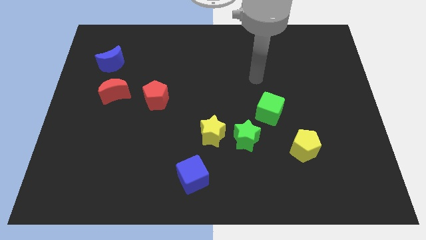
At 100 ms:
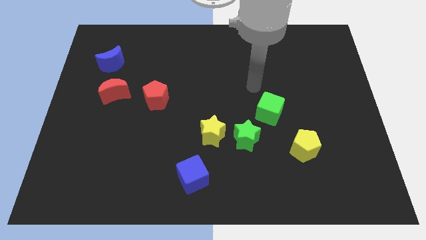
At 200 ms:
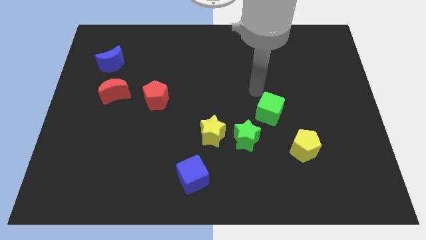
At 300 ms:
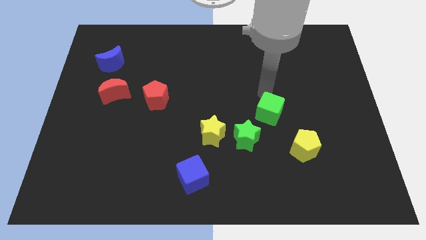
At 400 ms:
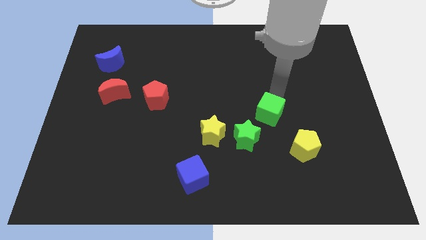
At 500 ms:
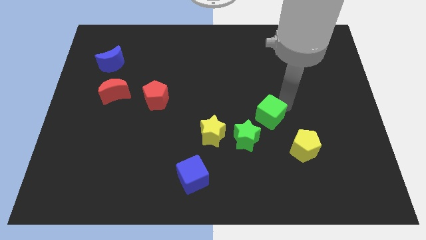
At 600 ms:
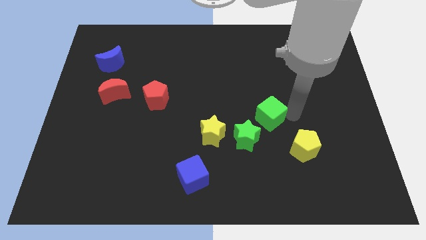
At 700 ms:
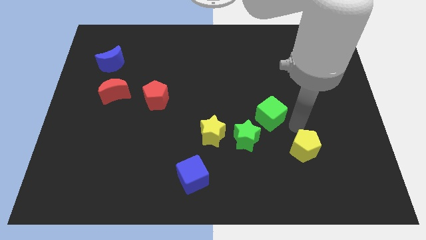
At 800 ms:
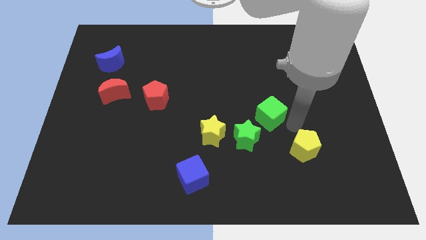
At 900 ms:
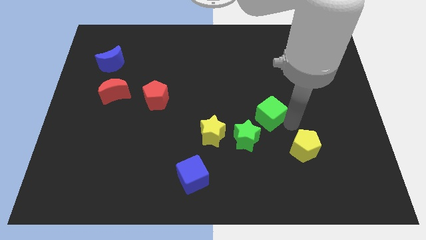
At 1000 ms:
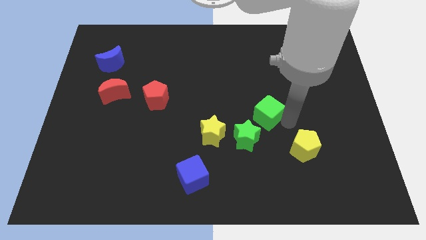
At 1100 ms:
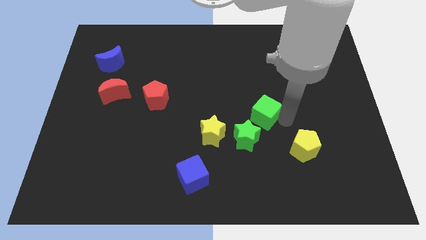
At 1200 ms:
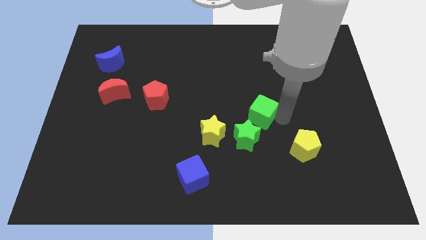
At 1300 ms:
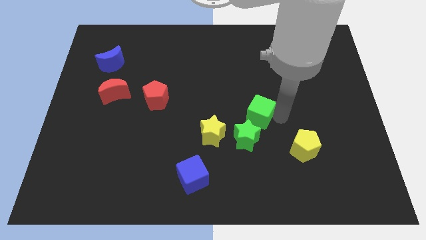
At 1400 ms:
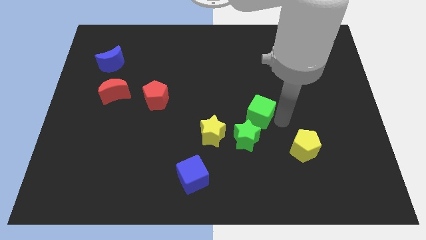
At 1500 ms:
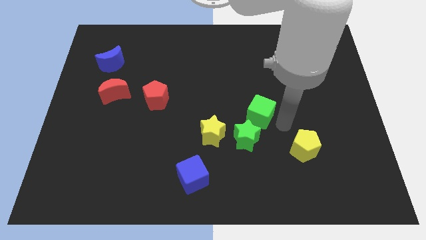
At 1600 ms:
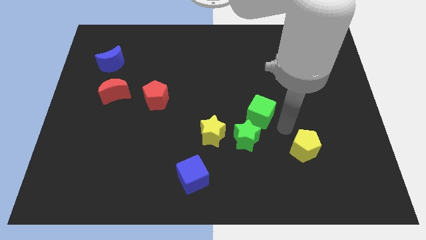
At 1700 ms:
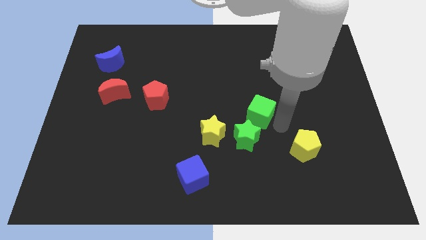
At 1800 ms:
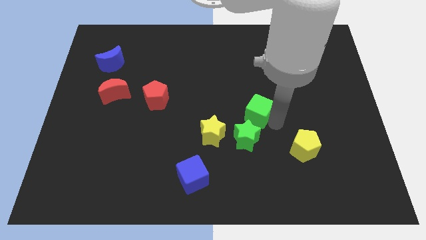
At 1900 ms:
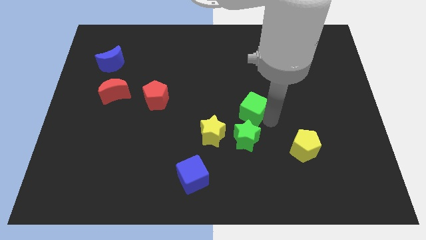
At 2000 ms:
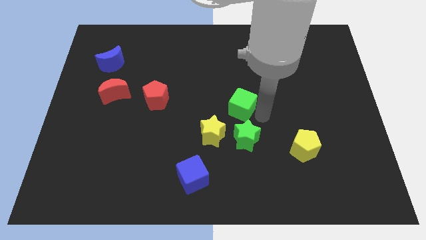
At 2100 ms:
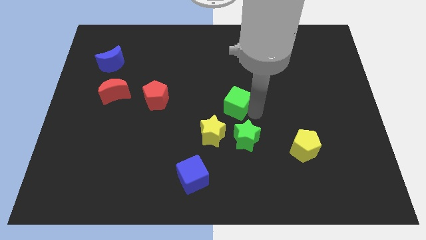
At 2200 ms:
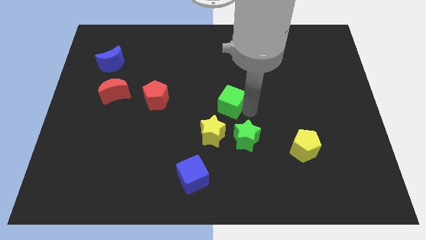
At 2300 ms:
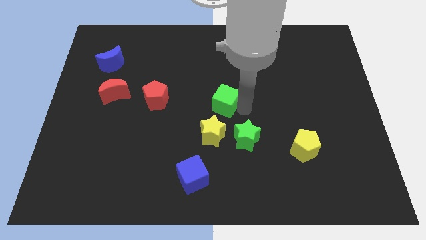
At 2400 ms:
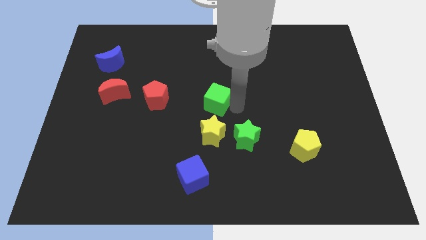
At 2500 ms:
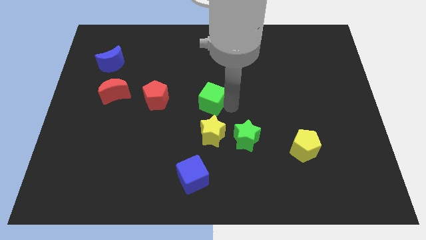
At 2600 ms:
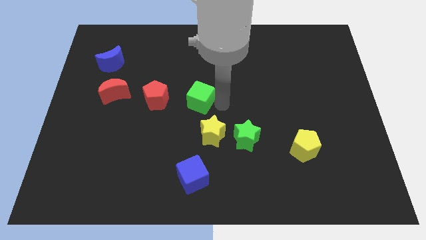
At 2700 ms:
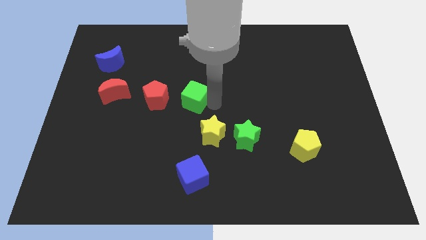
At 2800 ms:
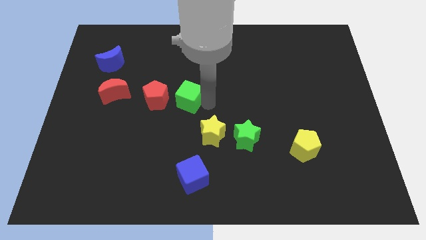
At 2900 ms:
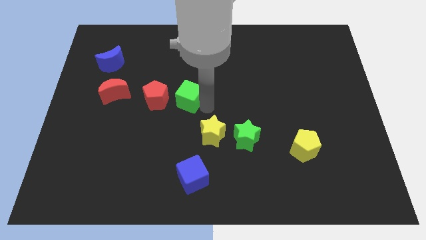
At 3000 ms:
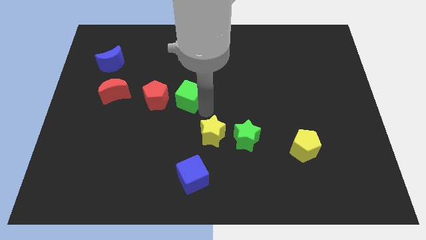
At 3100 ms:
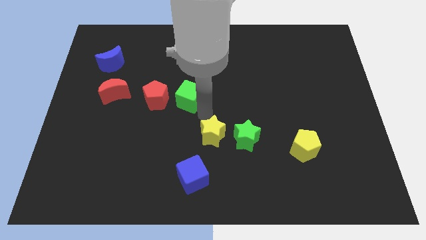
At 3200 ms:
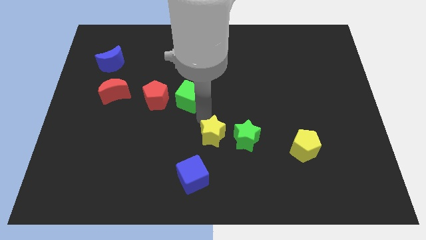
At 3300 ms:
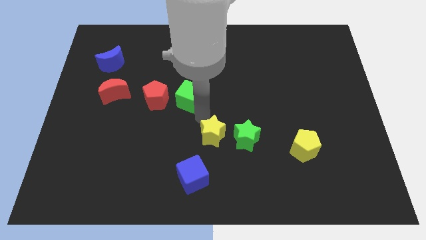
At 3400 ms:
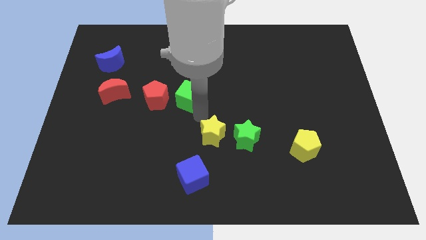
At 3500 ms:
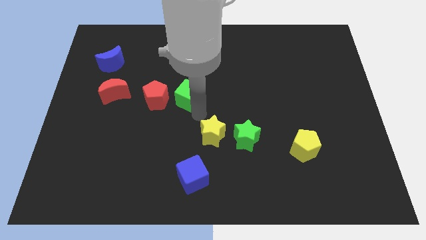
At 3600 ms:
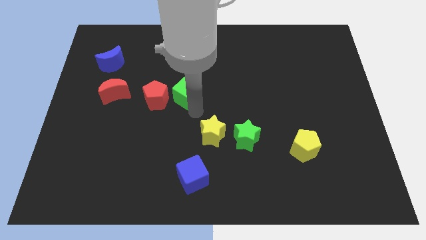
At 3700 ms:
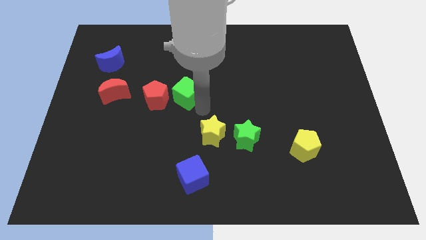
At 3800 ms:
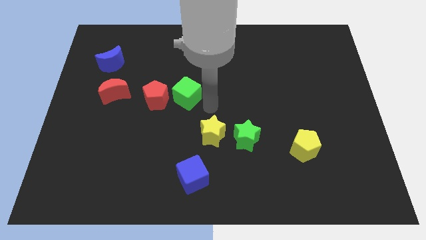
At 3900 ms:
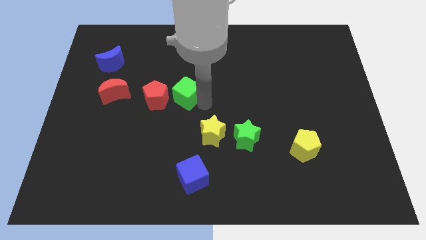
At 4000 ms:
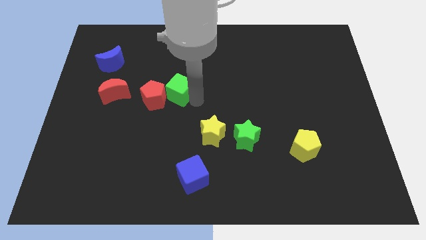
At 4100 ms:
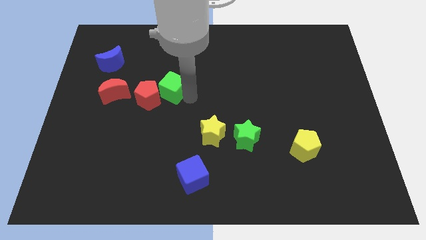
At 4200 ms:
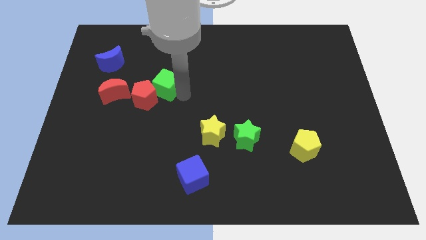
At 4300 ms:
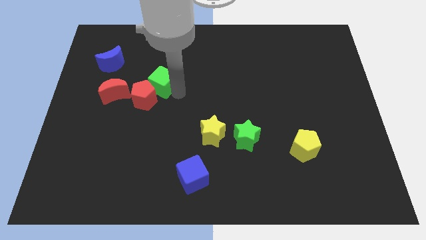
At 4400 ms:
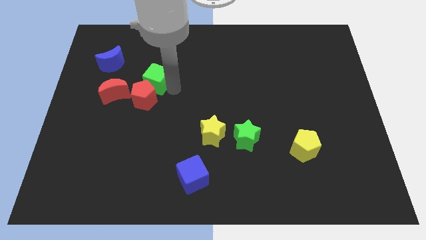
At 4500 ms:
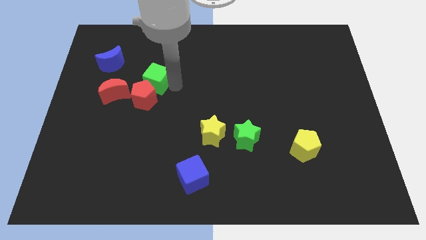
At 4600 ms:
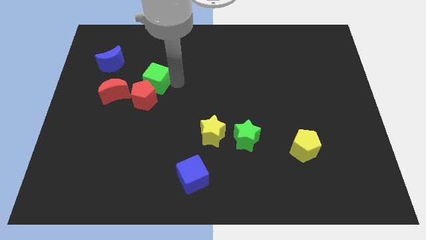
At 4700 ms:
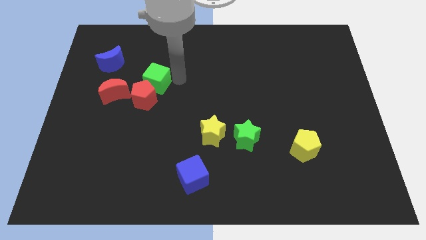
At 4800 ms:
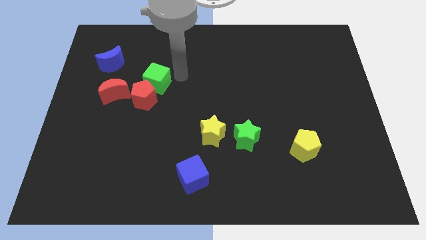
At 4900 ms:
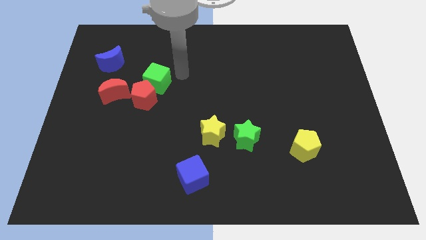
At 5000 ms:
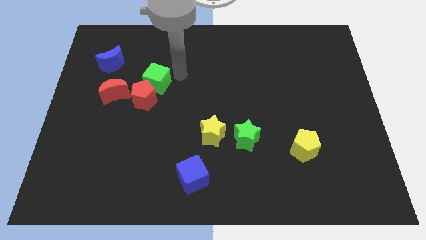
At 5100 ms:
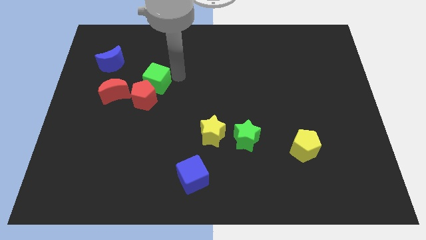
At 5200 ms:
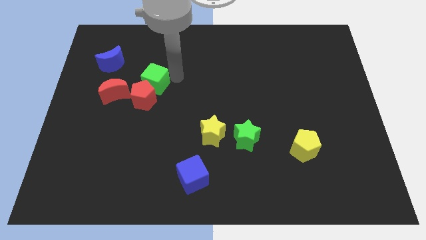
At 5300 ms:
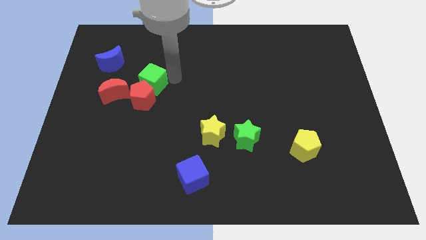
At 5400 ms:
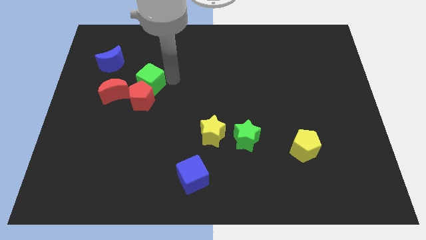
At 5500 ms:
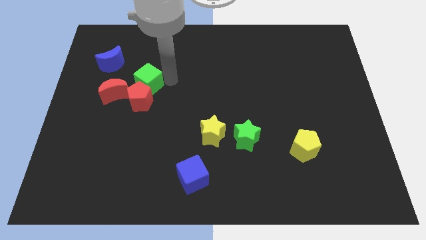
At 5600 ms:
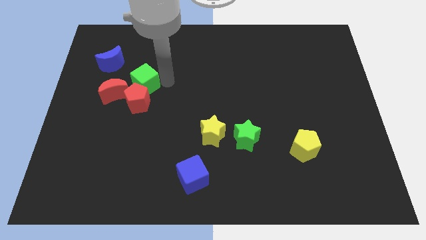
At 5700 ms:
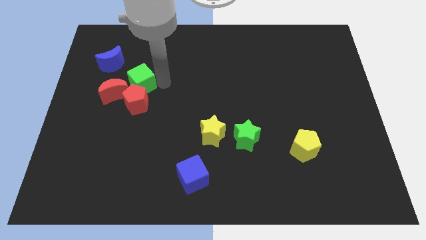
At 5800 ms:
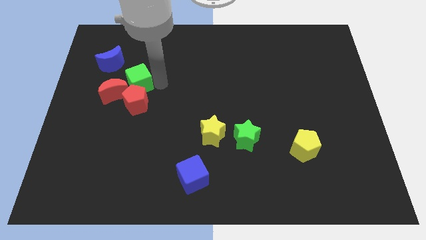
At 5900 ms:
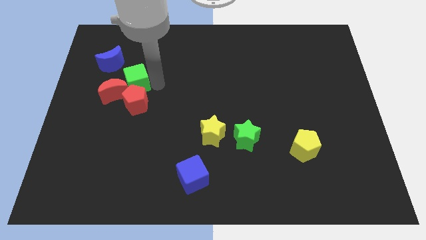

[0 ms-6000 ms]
put the green cube towards the red moon

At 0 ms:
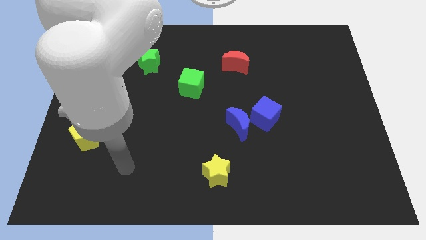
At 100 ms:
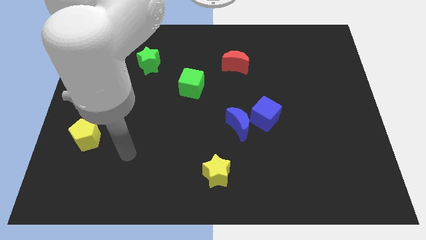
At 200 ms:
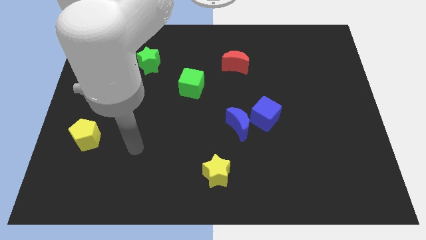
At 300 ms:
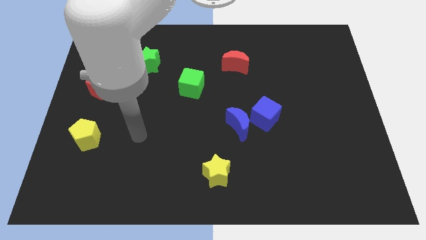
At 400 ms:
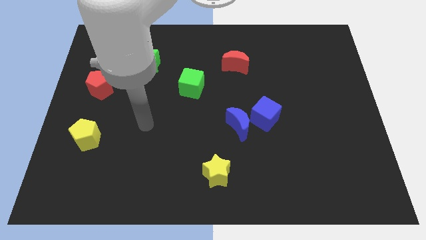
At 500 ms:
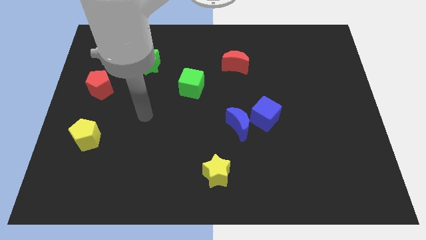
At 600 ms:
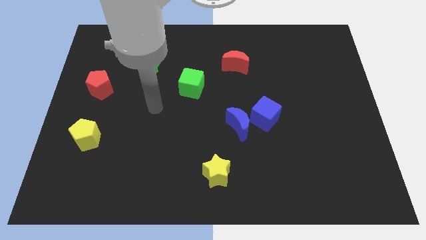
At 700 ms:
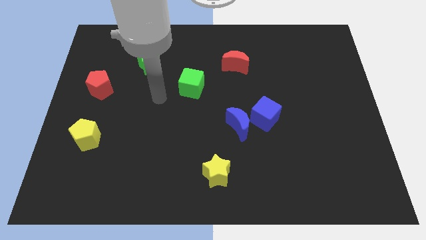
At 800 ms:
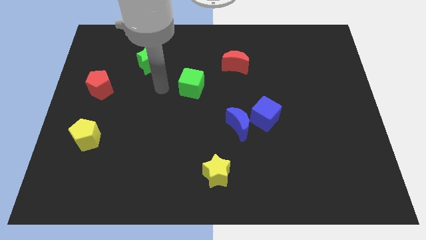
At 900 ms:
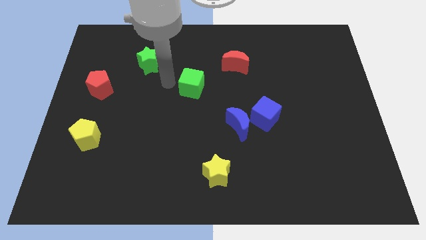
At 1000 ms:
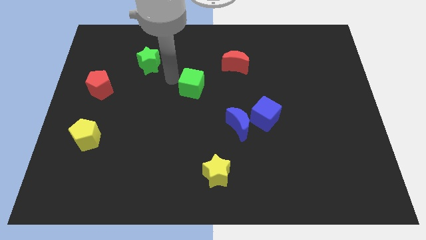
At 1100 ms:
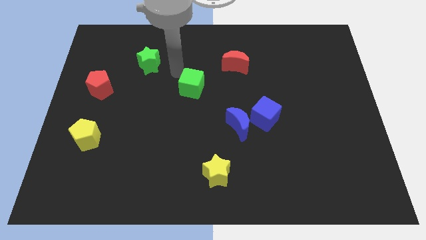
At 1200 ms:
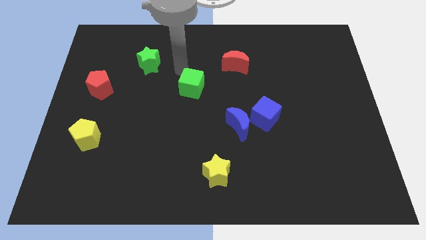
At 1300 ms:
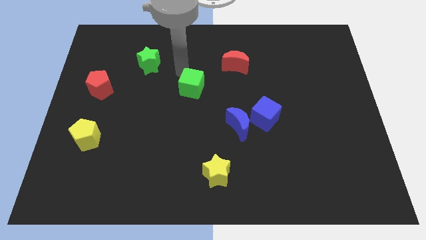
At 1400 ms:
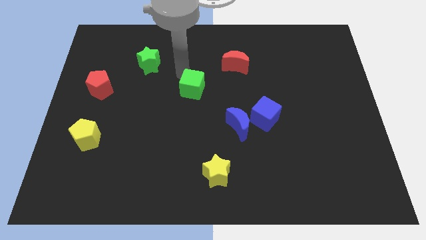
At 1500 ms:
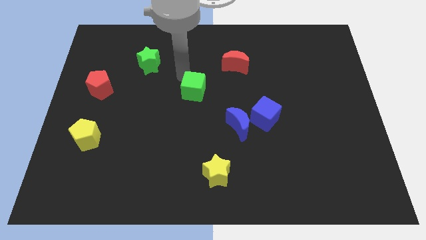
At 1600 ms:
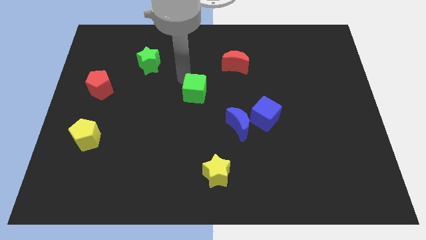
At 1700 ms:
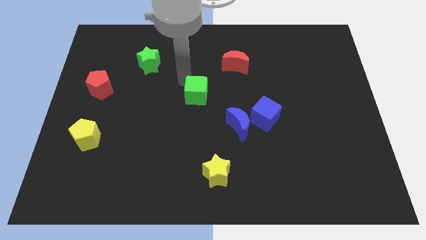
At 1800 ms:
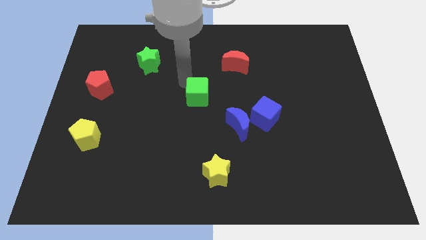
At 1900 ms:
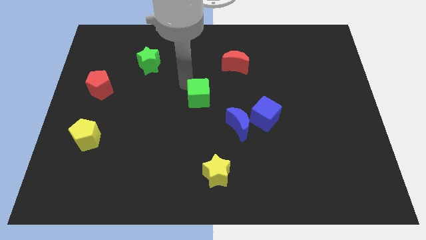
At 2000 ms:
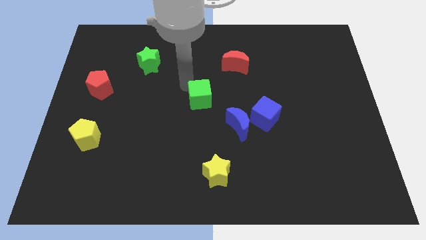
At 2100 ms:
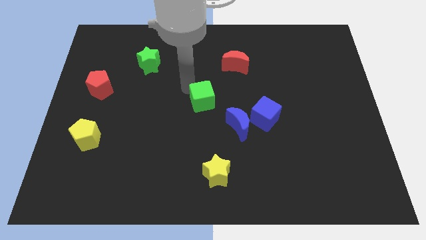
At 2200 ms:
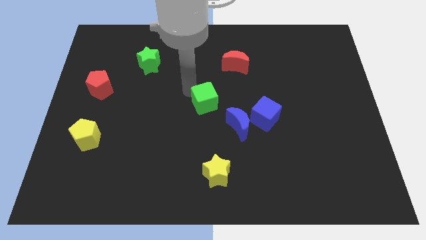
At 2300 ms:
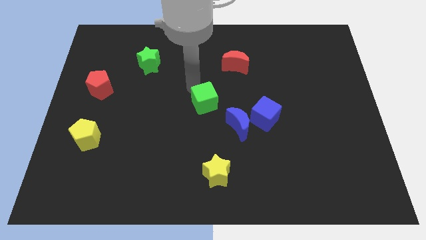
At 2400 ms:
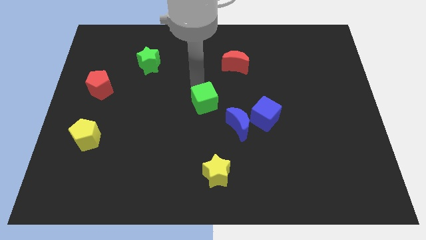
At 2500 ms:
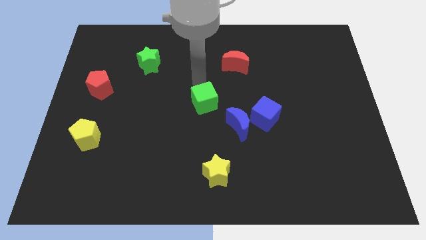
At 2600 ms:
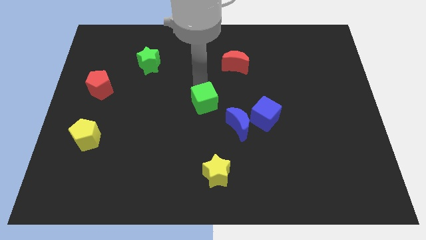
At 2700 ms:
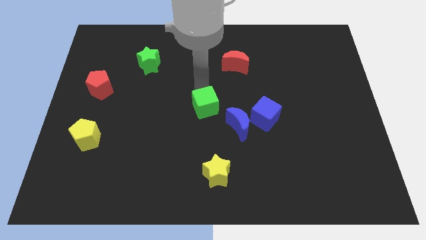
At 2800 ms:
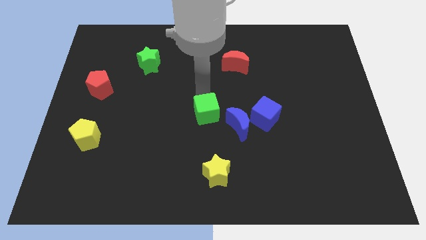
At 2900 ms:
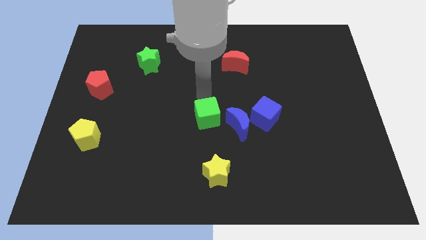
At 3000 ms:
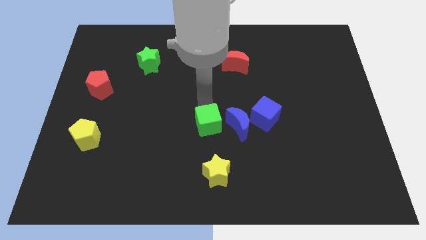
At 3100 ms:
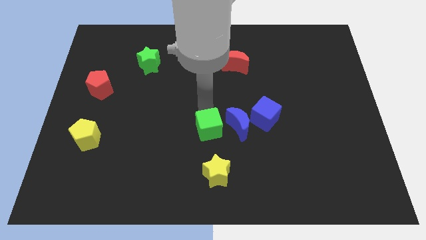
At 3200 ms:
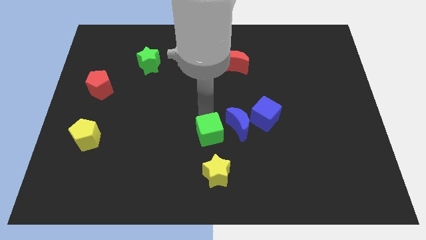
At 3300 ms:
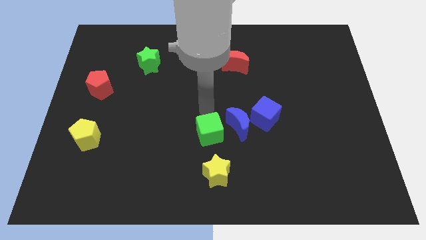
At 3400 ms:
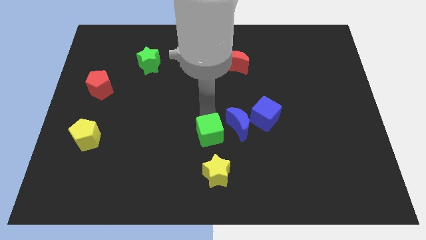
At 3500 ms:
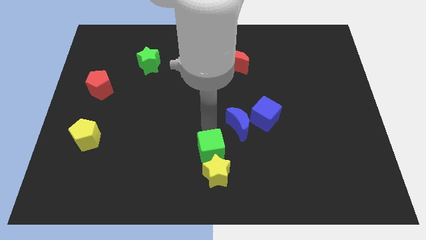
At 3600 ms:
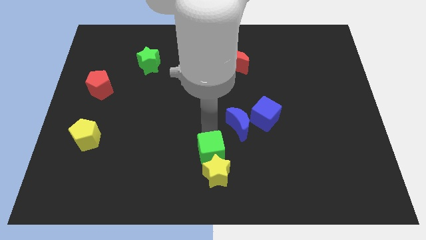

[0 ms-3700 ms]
slide the green cube to the yellow star
